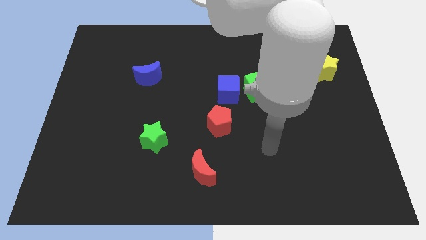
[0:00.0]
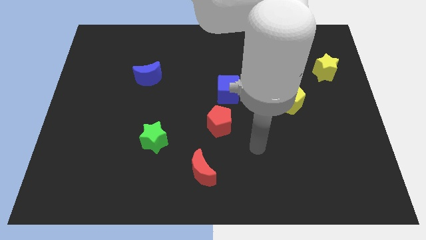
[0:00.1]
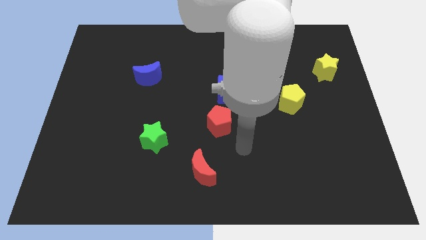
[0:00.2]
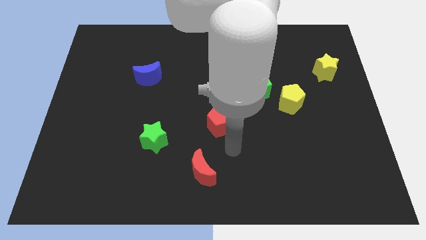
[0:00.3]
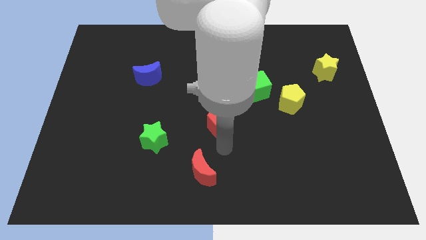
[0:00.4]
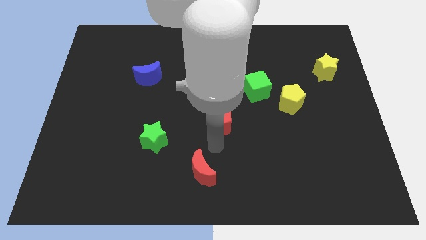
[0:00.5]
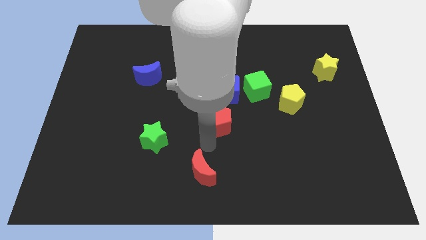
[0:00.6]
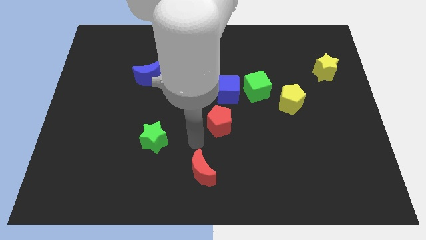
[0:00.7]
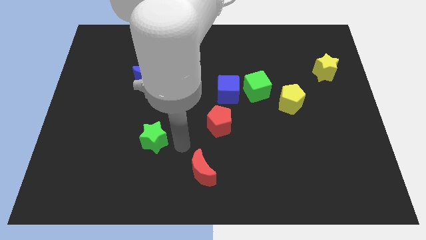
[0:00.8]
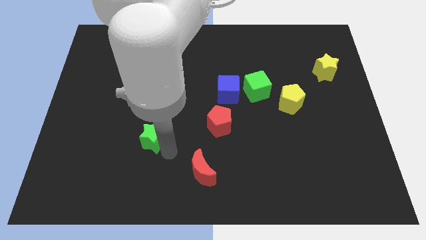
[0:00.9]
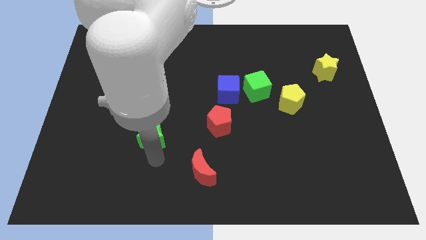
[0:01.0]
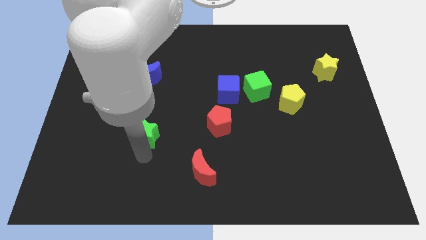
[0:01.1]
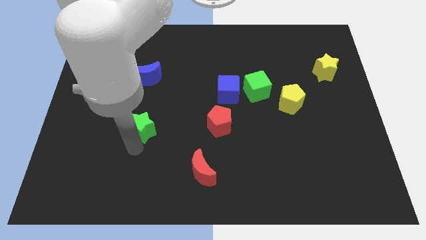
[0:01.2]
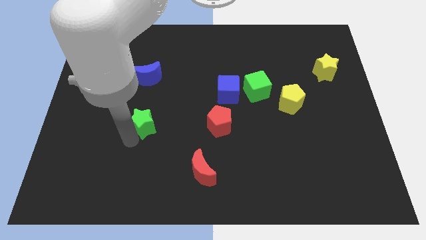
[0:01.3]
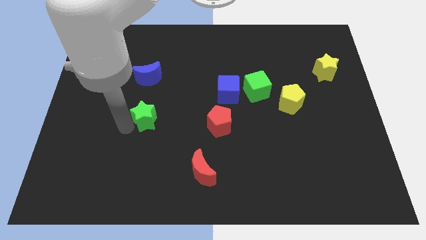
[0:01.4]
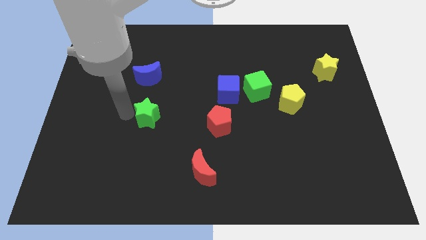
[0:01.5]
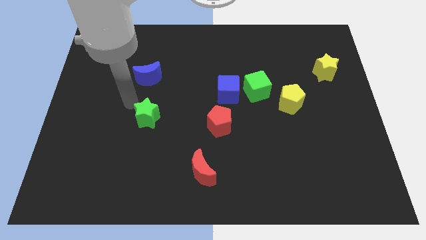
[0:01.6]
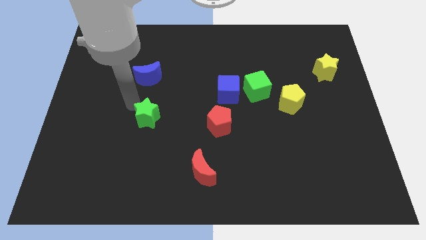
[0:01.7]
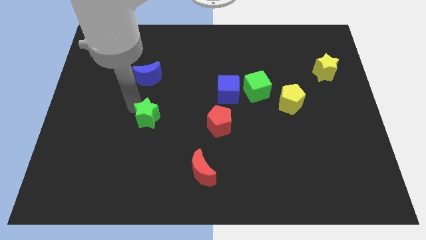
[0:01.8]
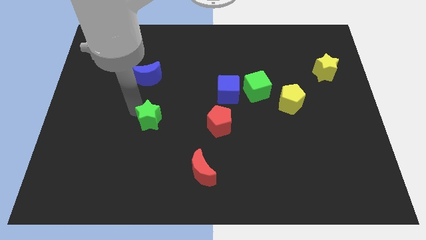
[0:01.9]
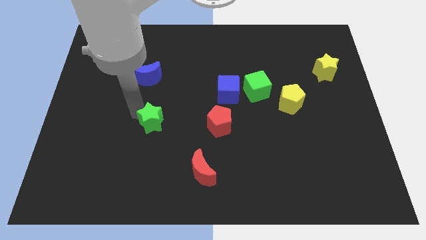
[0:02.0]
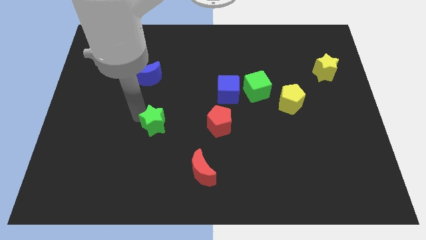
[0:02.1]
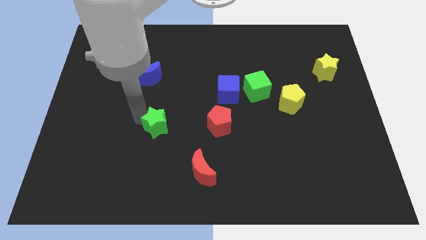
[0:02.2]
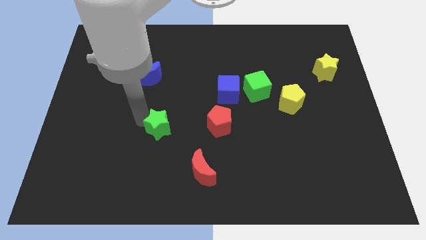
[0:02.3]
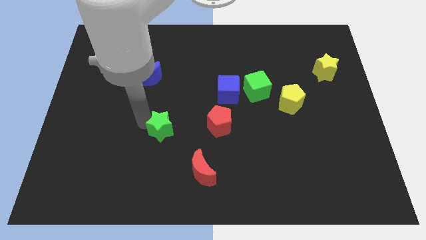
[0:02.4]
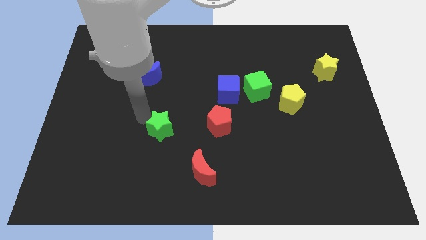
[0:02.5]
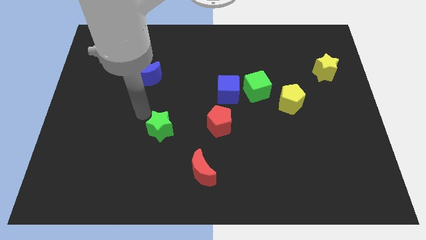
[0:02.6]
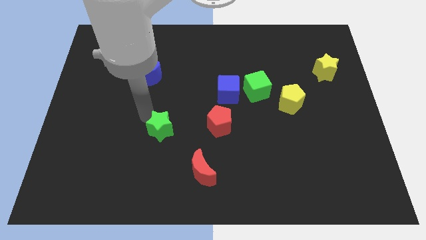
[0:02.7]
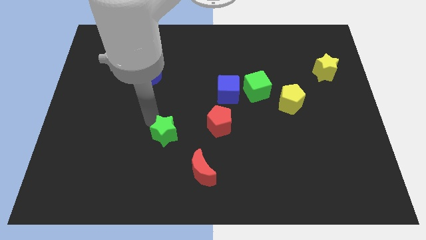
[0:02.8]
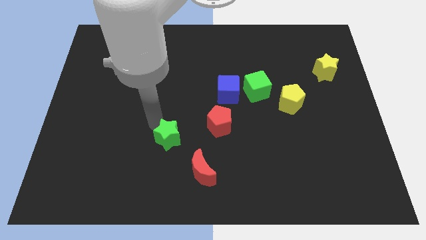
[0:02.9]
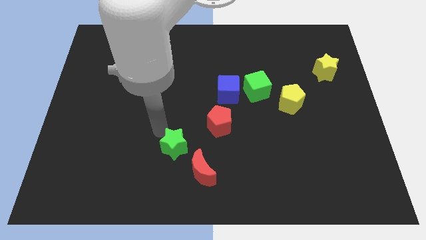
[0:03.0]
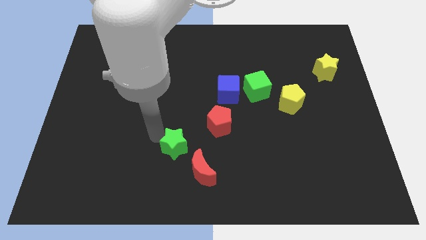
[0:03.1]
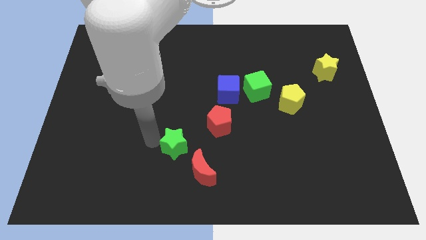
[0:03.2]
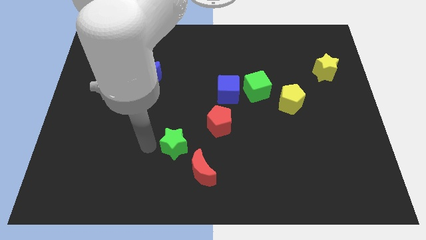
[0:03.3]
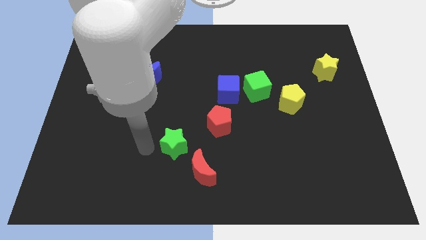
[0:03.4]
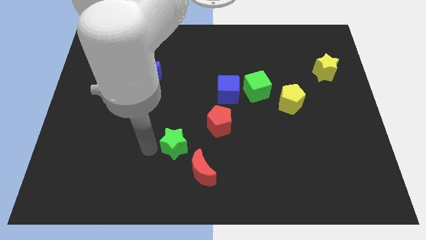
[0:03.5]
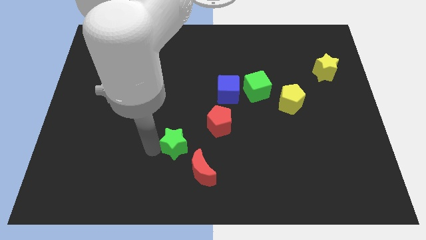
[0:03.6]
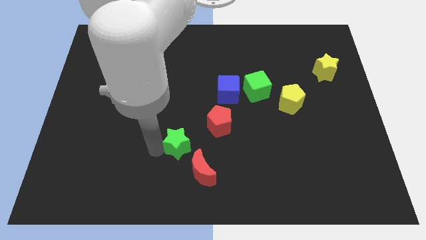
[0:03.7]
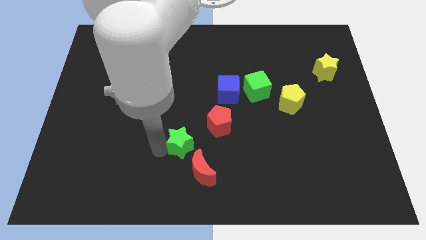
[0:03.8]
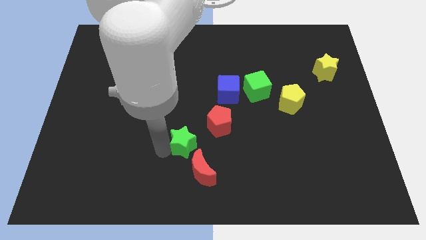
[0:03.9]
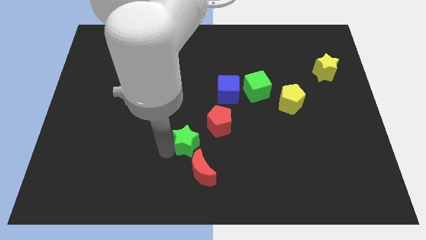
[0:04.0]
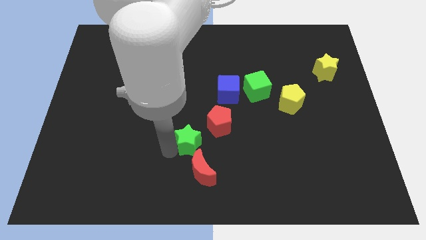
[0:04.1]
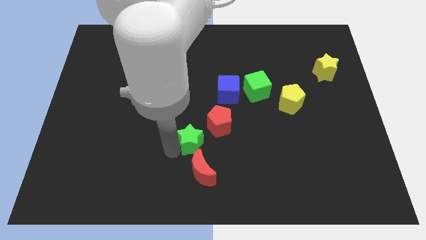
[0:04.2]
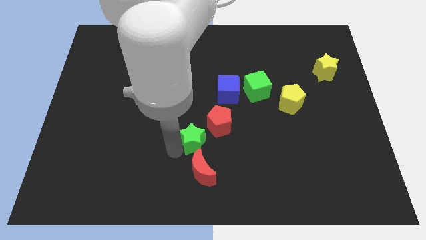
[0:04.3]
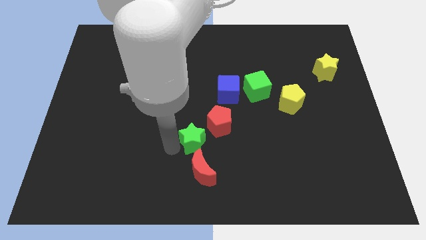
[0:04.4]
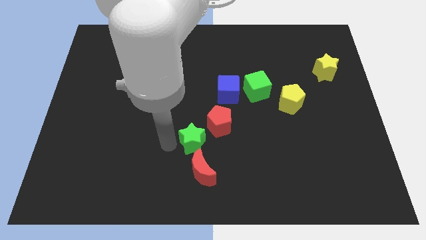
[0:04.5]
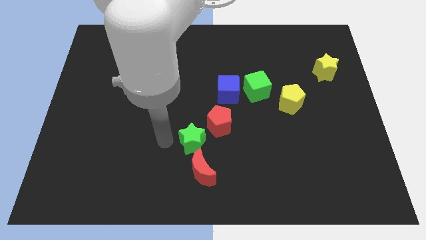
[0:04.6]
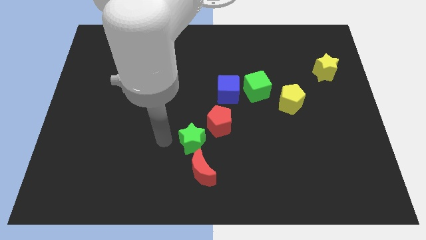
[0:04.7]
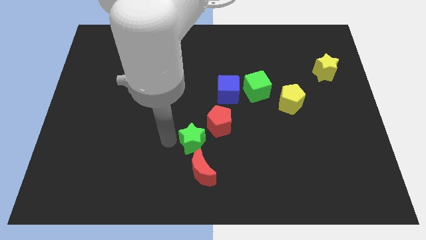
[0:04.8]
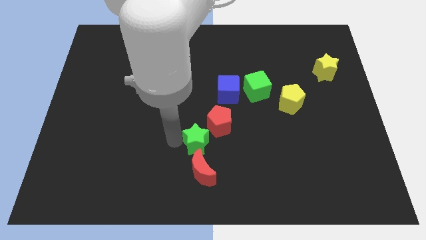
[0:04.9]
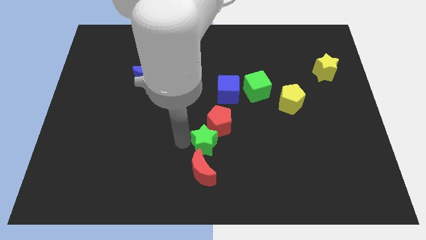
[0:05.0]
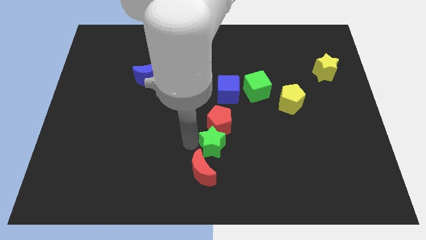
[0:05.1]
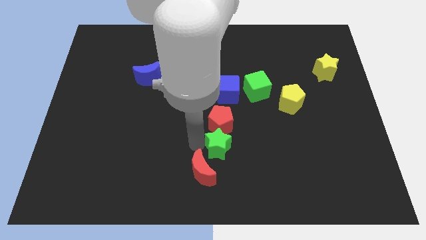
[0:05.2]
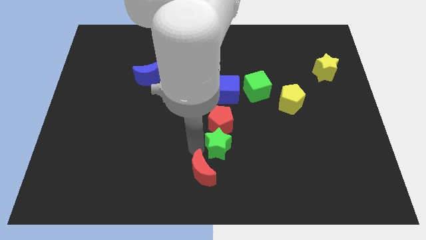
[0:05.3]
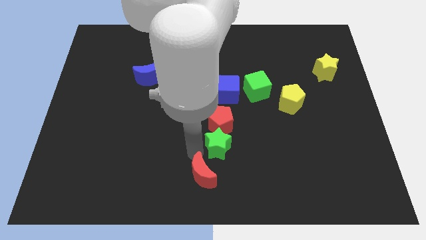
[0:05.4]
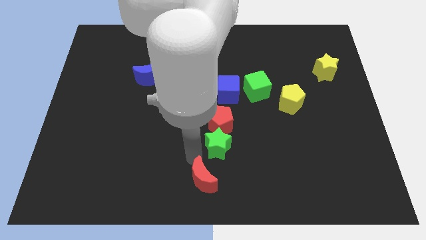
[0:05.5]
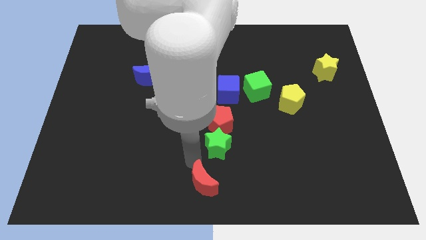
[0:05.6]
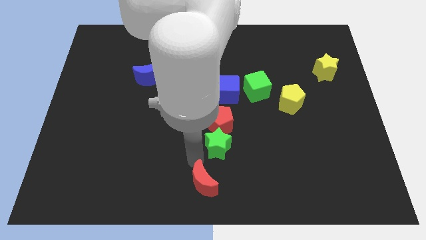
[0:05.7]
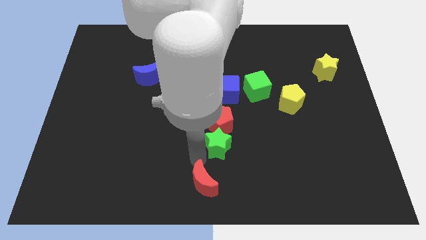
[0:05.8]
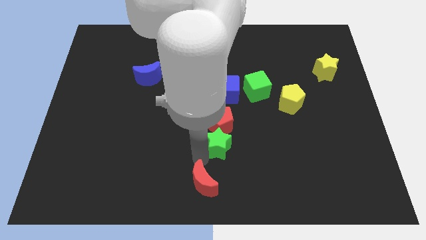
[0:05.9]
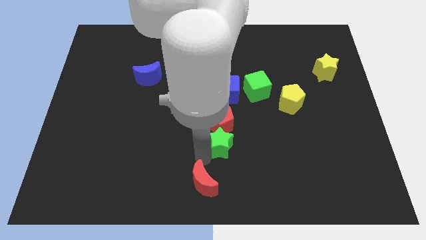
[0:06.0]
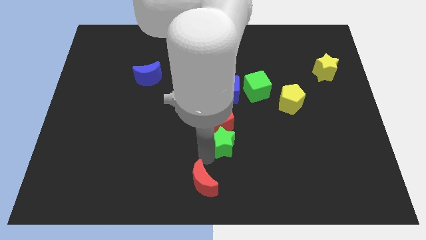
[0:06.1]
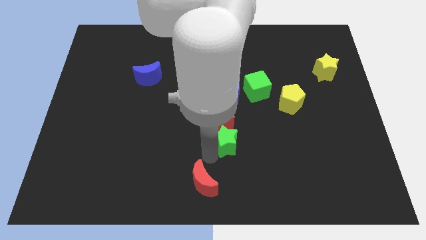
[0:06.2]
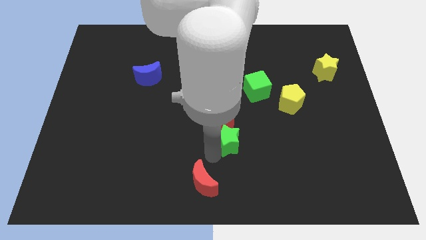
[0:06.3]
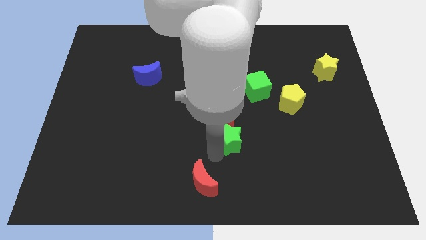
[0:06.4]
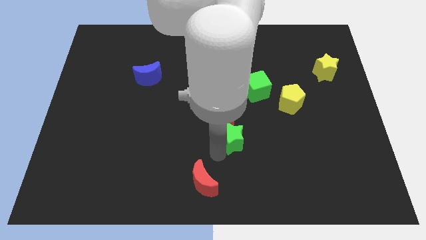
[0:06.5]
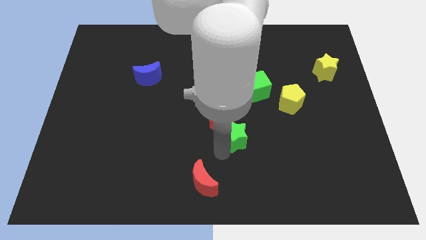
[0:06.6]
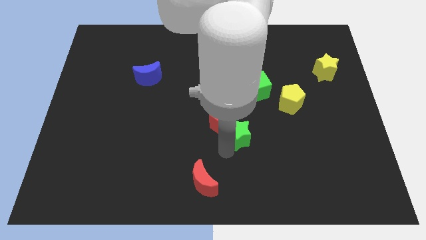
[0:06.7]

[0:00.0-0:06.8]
put the green star just right of the red pentagon

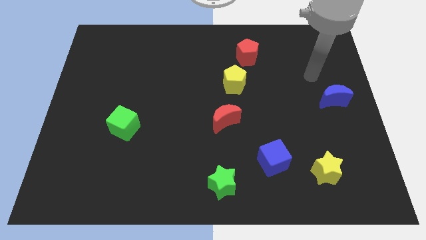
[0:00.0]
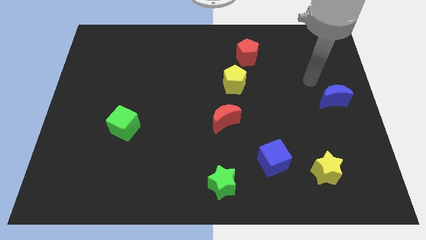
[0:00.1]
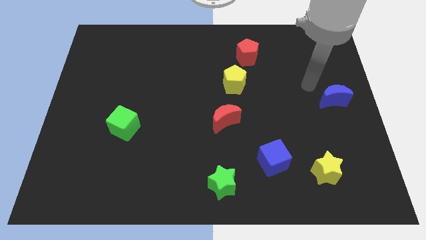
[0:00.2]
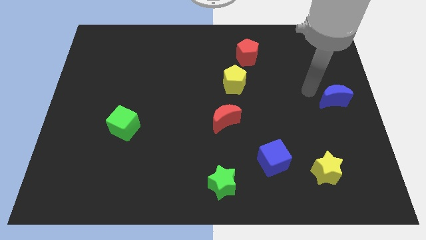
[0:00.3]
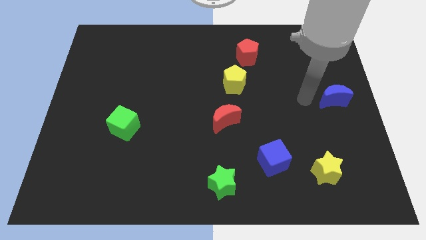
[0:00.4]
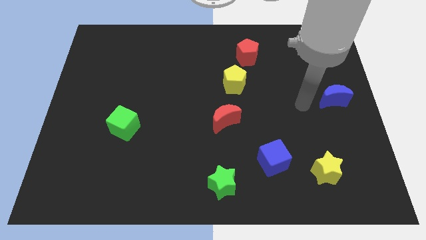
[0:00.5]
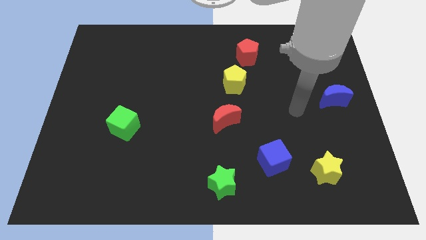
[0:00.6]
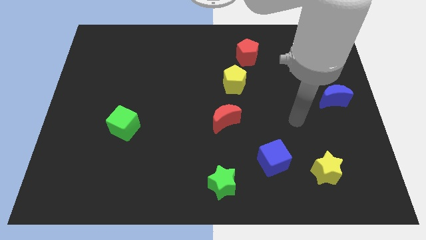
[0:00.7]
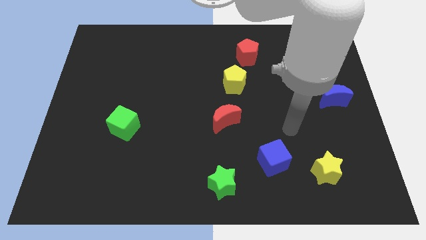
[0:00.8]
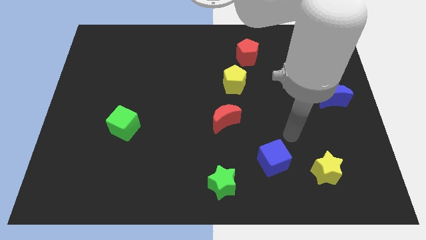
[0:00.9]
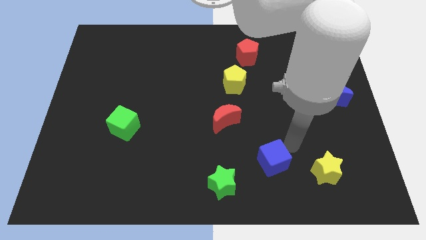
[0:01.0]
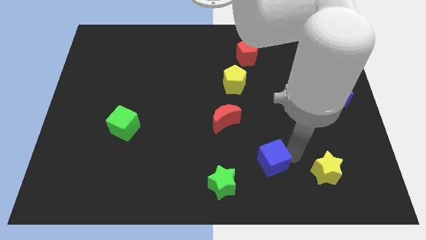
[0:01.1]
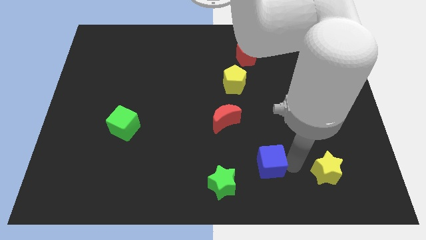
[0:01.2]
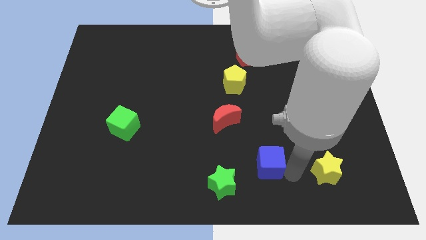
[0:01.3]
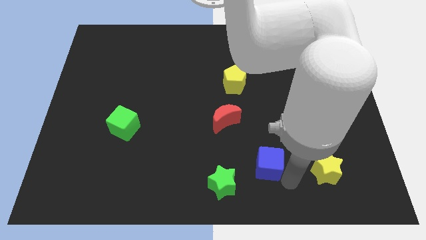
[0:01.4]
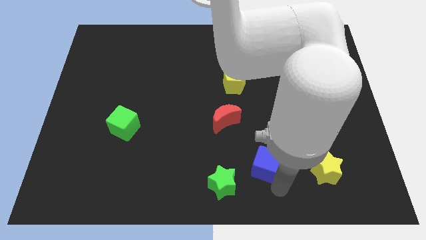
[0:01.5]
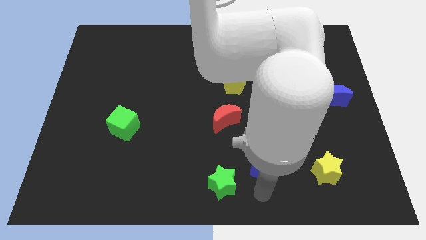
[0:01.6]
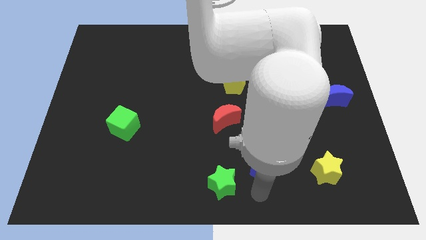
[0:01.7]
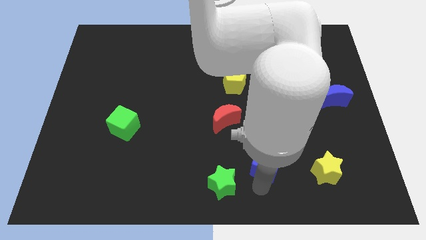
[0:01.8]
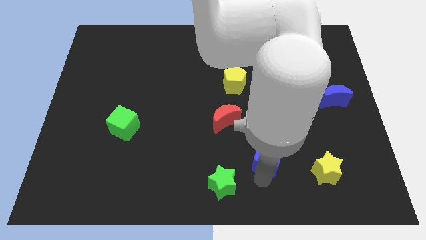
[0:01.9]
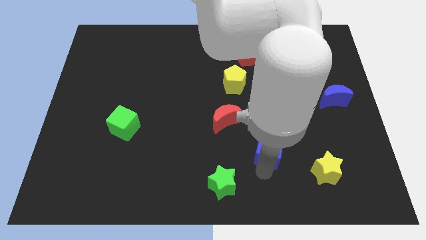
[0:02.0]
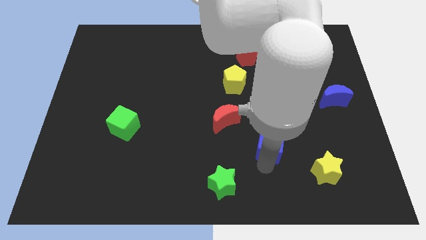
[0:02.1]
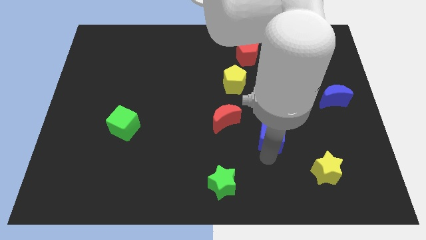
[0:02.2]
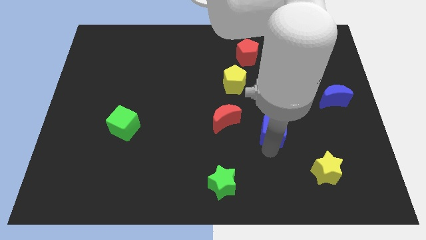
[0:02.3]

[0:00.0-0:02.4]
slide the blue cube just right of the red moon
